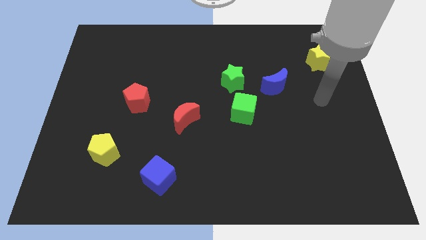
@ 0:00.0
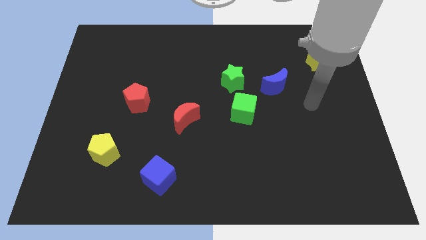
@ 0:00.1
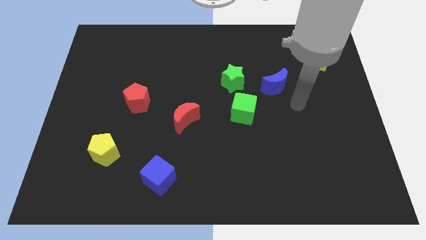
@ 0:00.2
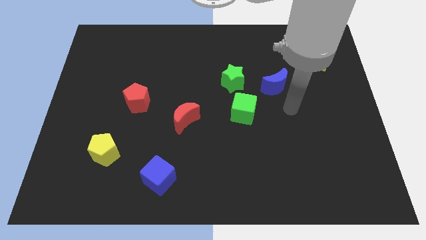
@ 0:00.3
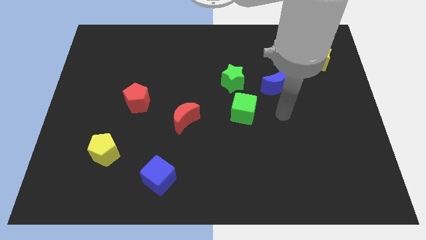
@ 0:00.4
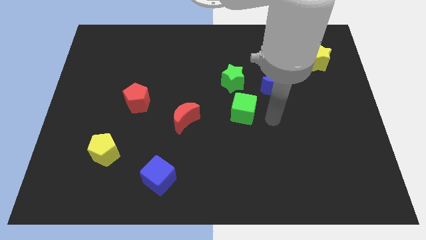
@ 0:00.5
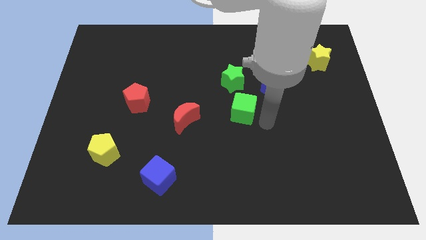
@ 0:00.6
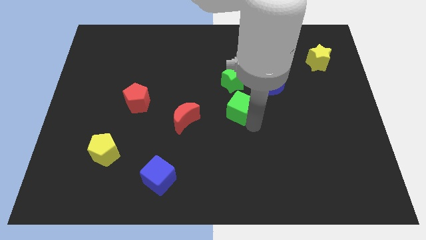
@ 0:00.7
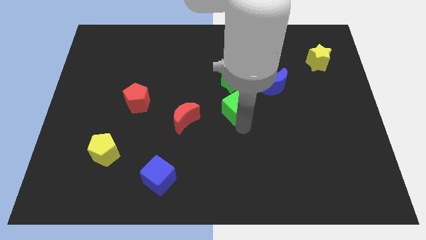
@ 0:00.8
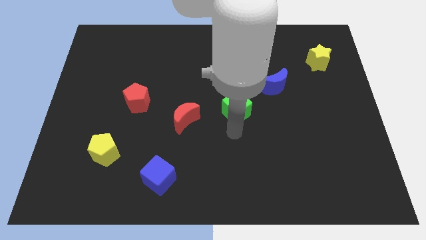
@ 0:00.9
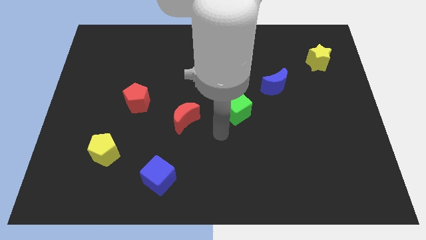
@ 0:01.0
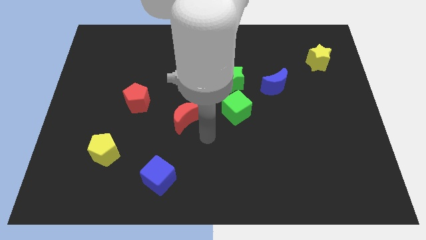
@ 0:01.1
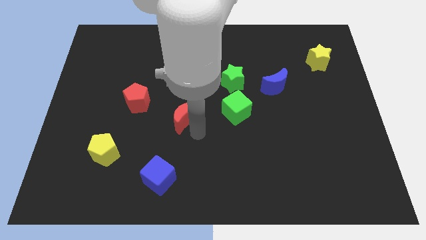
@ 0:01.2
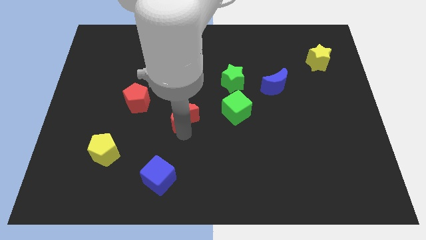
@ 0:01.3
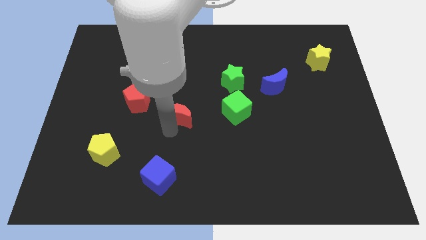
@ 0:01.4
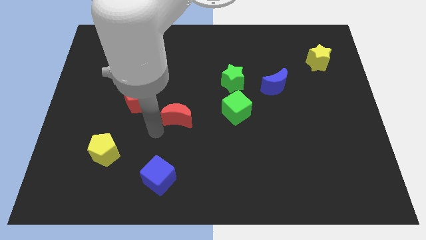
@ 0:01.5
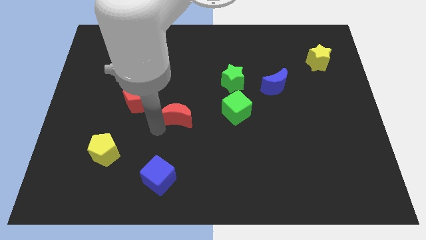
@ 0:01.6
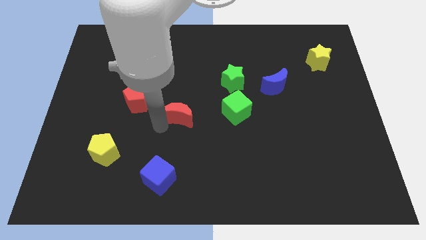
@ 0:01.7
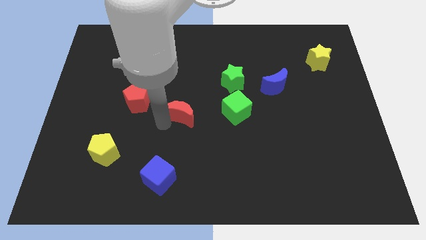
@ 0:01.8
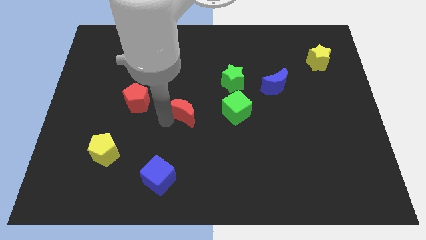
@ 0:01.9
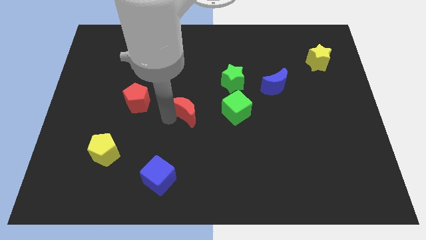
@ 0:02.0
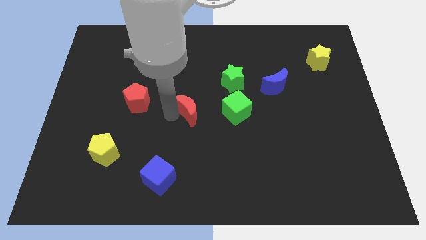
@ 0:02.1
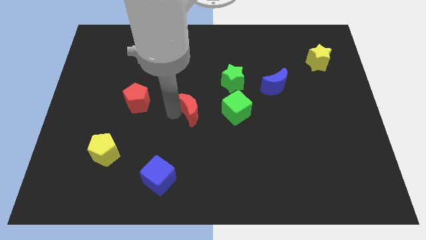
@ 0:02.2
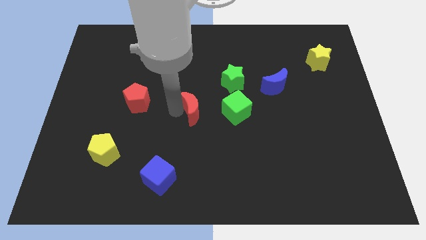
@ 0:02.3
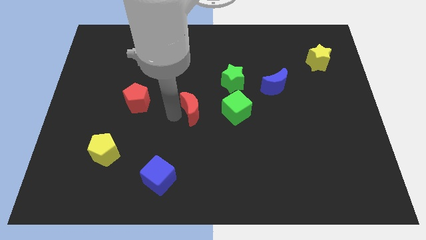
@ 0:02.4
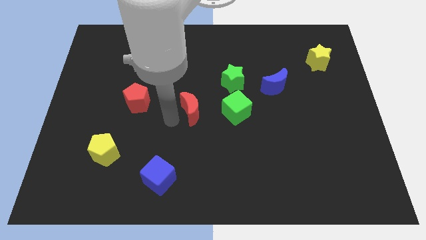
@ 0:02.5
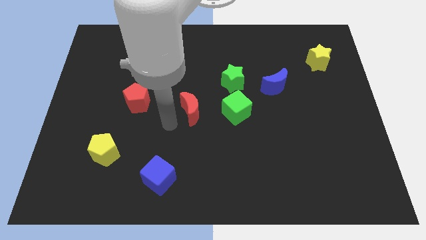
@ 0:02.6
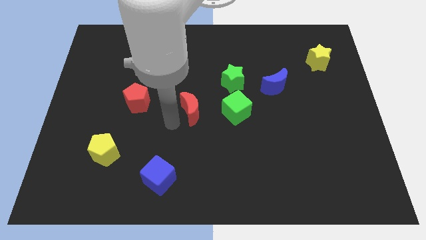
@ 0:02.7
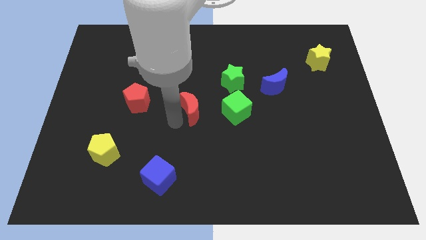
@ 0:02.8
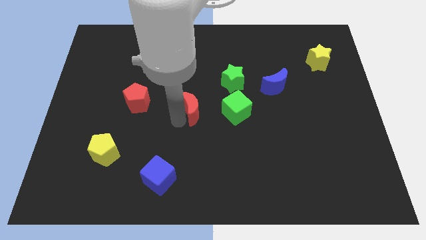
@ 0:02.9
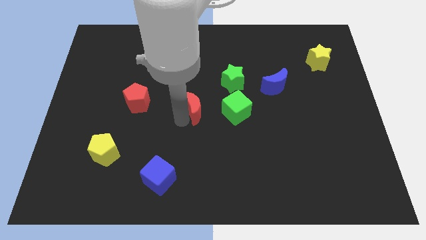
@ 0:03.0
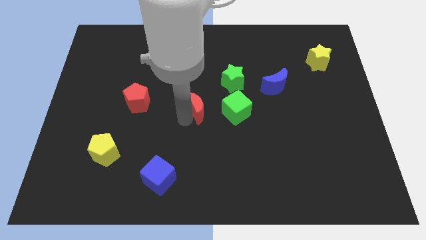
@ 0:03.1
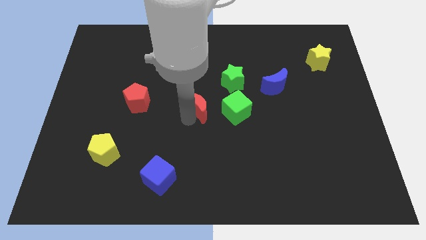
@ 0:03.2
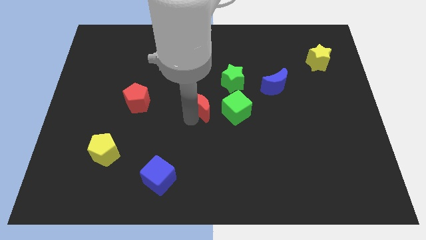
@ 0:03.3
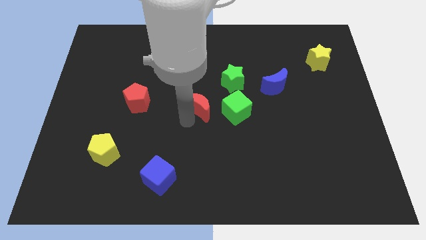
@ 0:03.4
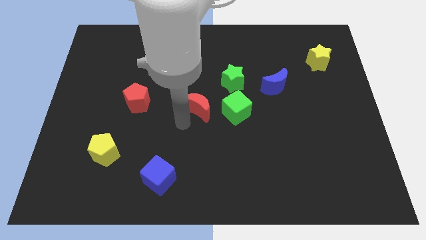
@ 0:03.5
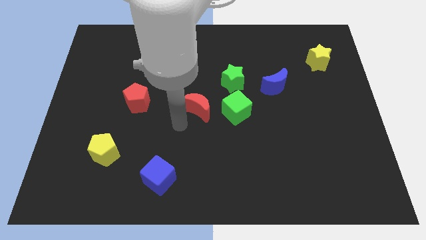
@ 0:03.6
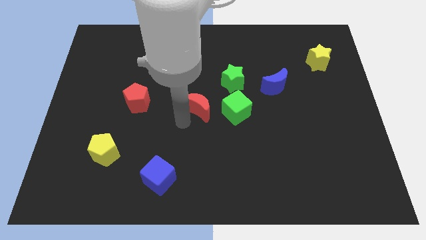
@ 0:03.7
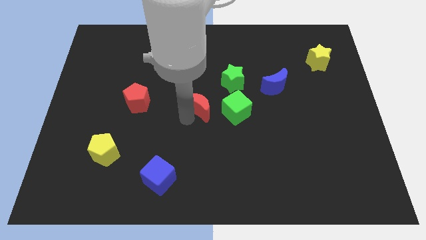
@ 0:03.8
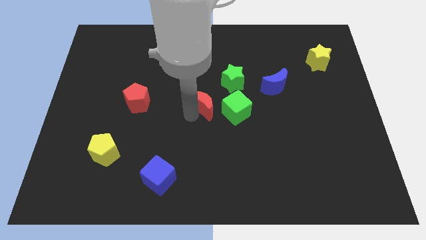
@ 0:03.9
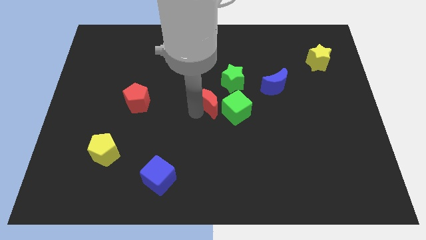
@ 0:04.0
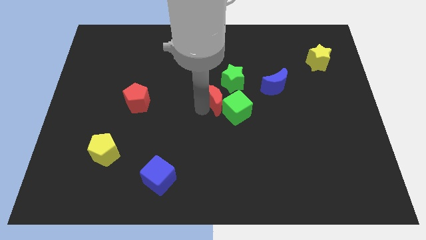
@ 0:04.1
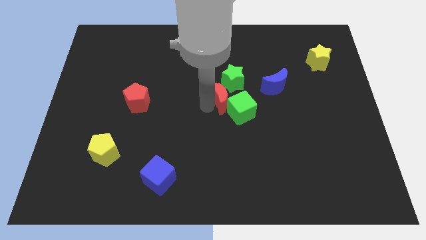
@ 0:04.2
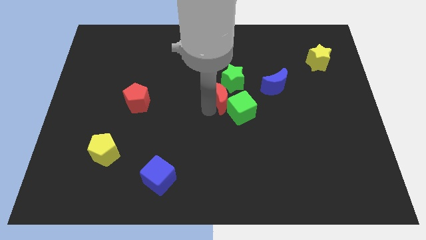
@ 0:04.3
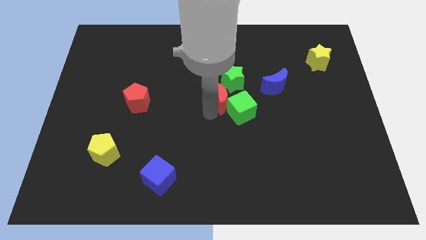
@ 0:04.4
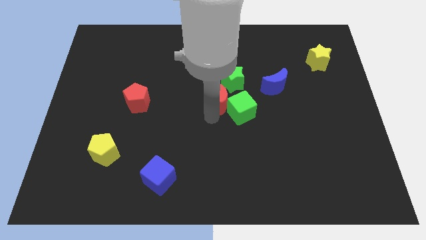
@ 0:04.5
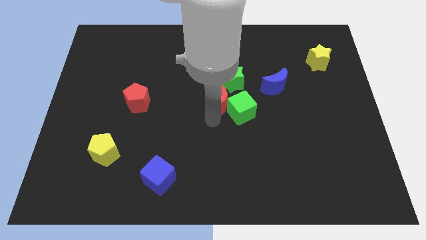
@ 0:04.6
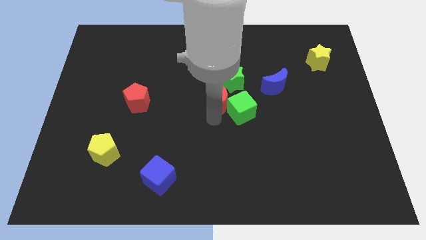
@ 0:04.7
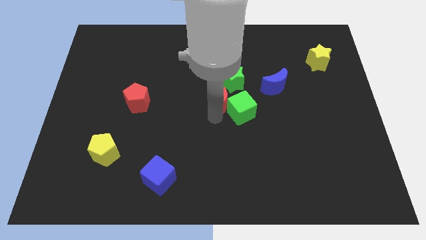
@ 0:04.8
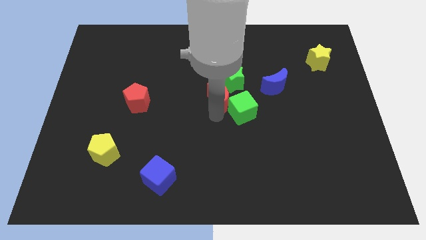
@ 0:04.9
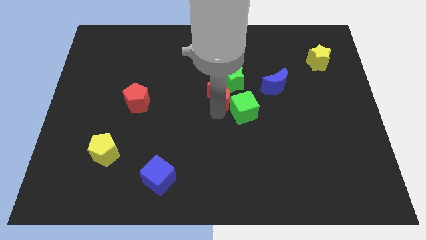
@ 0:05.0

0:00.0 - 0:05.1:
put the red moon towards the green star

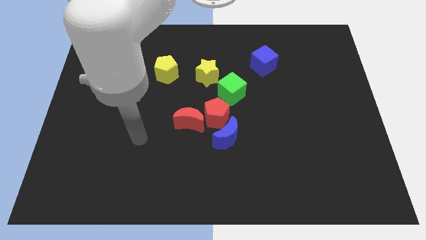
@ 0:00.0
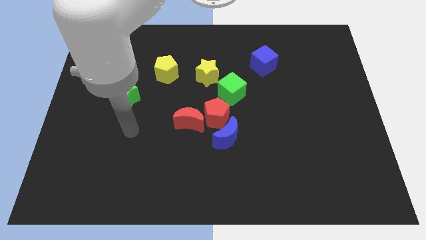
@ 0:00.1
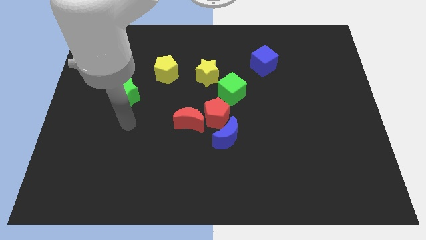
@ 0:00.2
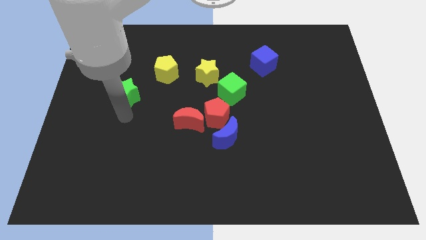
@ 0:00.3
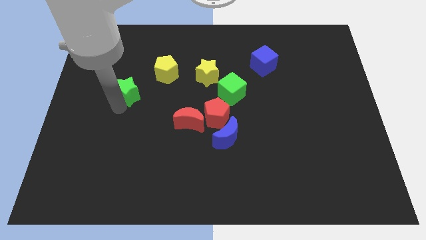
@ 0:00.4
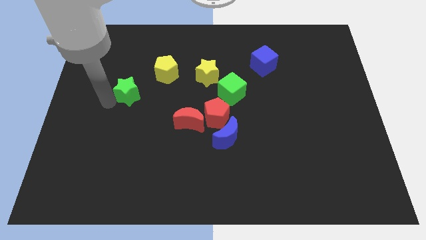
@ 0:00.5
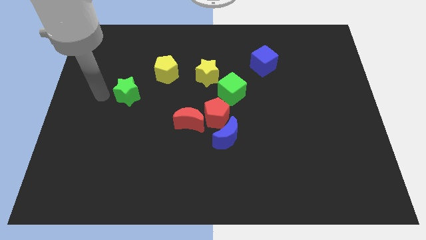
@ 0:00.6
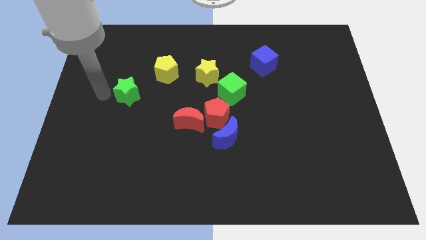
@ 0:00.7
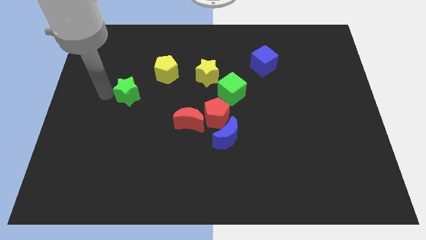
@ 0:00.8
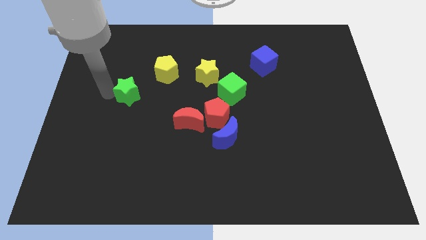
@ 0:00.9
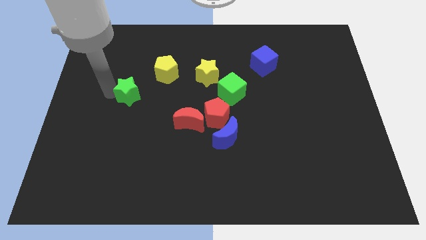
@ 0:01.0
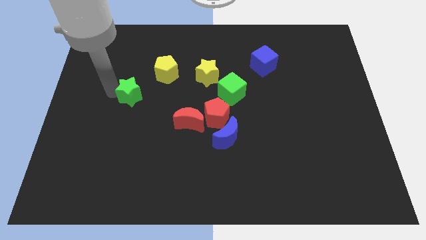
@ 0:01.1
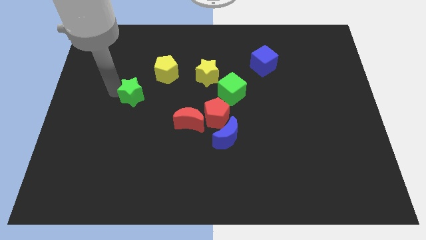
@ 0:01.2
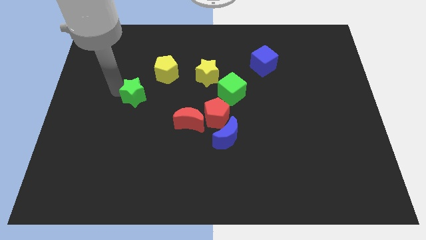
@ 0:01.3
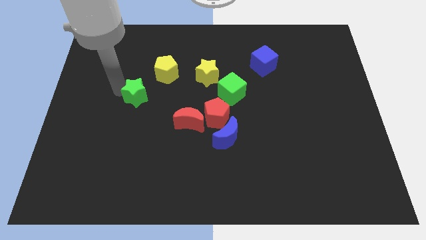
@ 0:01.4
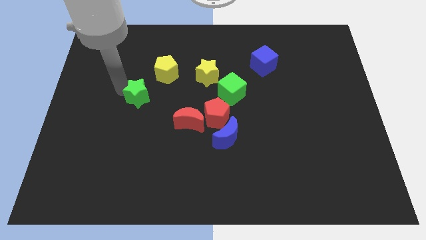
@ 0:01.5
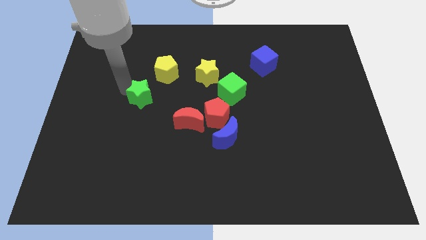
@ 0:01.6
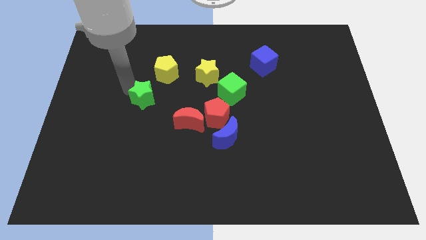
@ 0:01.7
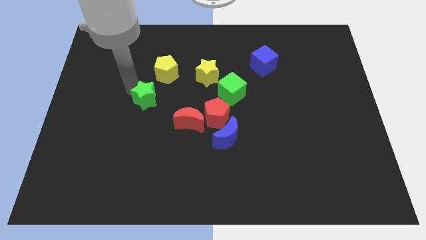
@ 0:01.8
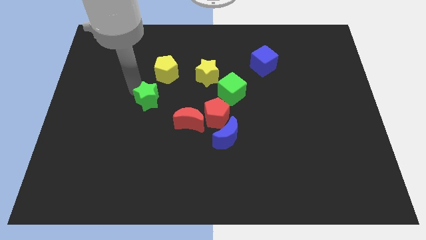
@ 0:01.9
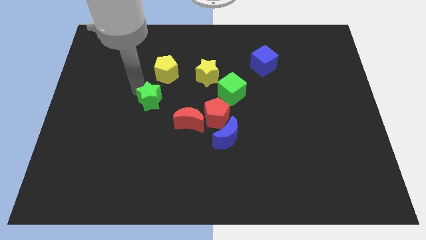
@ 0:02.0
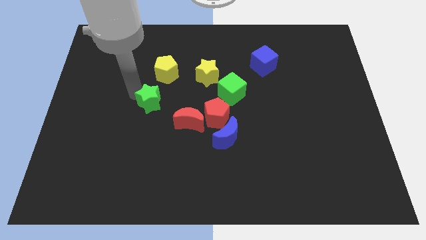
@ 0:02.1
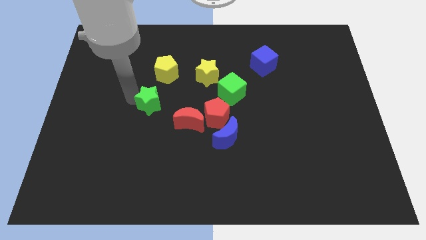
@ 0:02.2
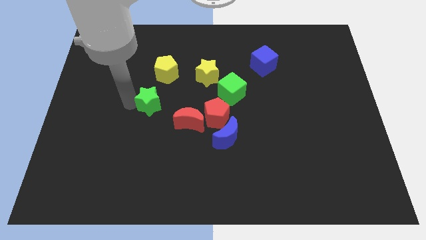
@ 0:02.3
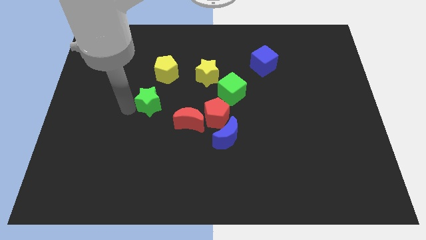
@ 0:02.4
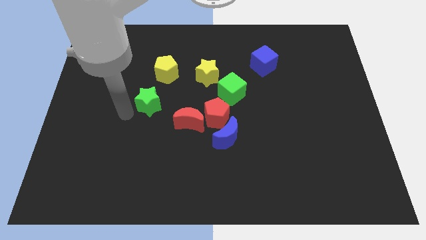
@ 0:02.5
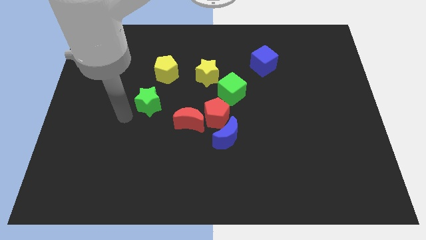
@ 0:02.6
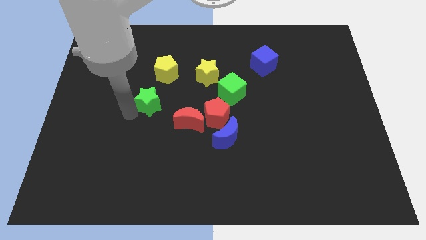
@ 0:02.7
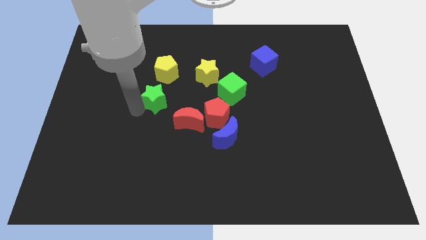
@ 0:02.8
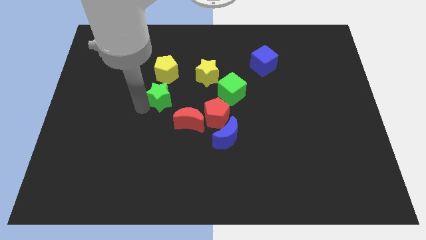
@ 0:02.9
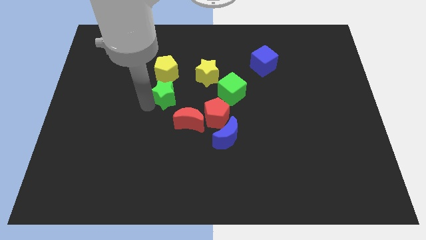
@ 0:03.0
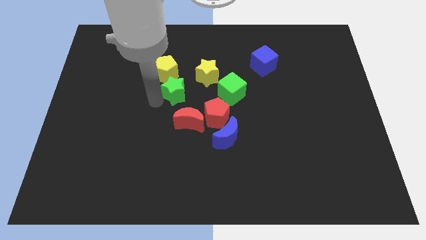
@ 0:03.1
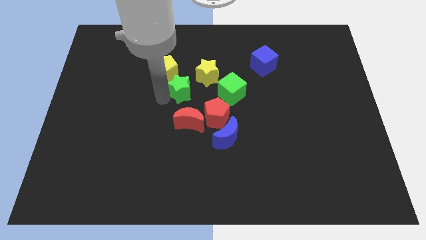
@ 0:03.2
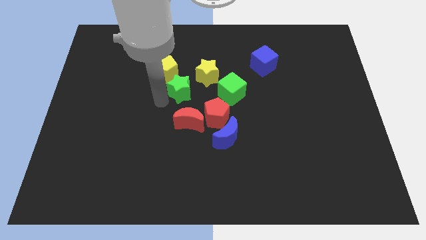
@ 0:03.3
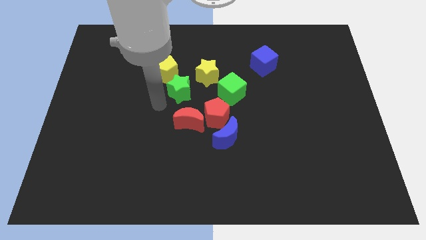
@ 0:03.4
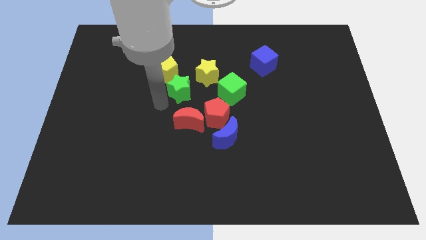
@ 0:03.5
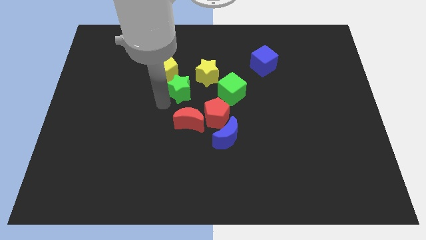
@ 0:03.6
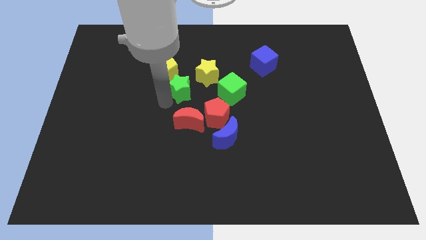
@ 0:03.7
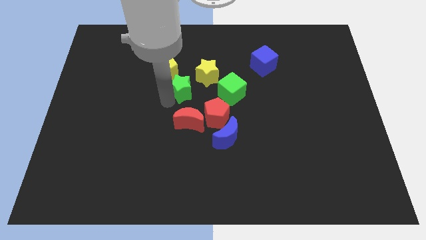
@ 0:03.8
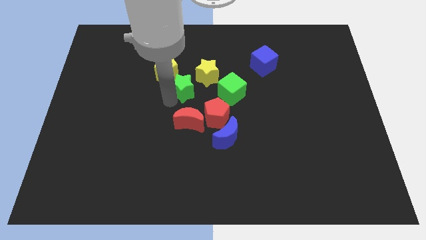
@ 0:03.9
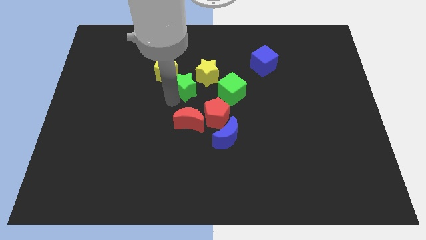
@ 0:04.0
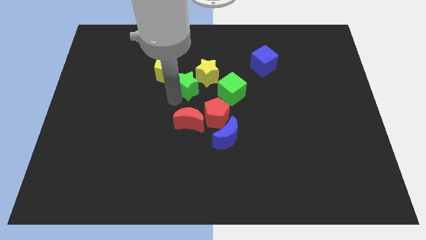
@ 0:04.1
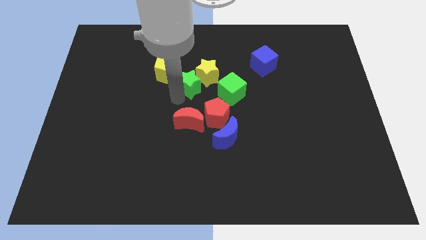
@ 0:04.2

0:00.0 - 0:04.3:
slide the green star next to the yellow star
